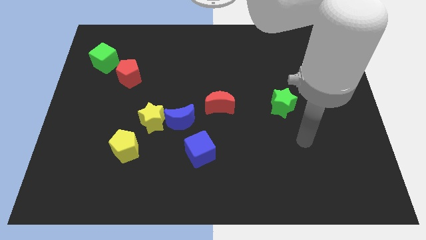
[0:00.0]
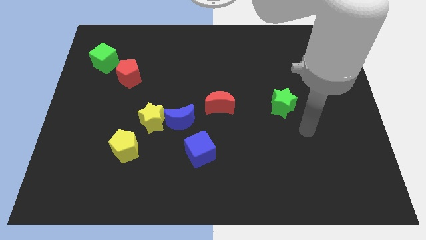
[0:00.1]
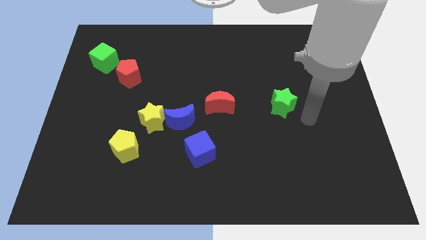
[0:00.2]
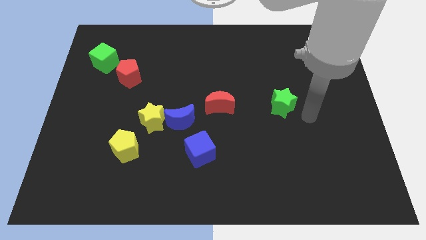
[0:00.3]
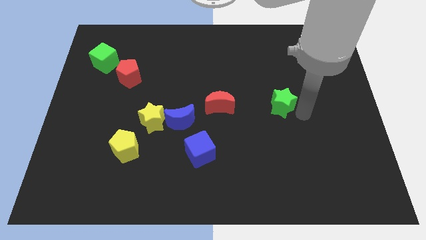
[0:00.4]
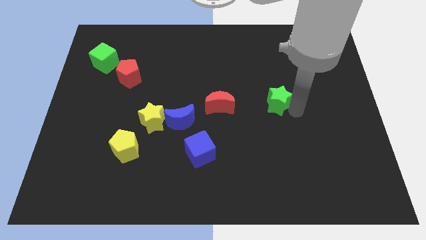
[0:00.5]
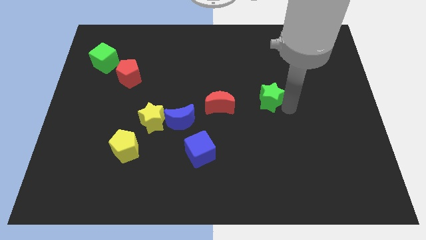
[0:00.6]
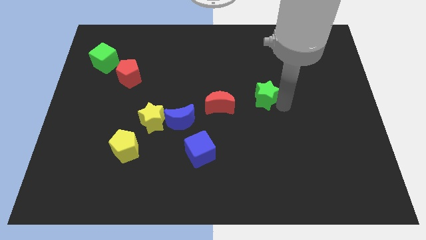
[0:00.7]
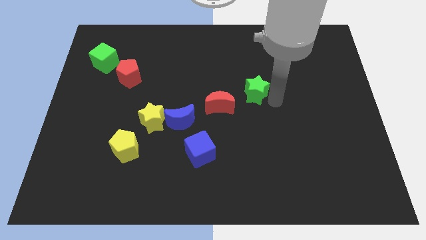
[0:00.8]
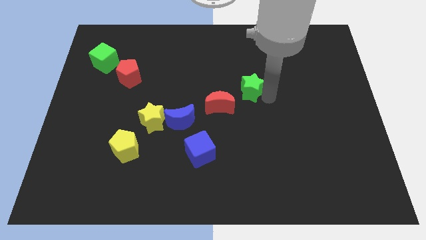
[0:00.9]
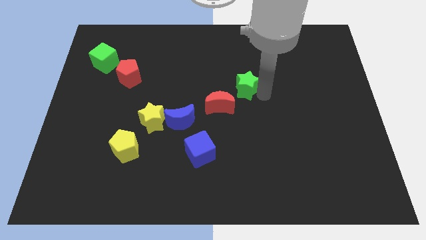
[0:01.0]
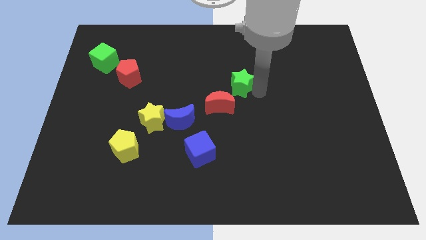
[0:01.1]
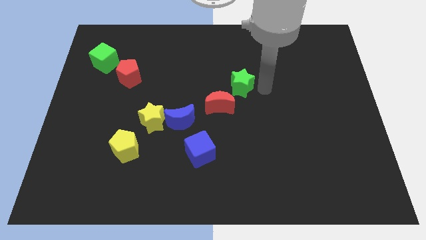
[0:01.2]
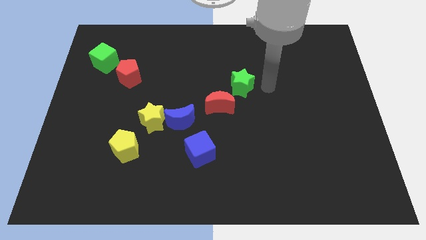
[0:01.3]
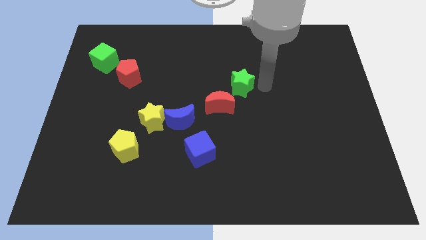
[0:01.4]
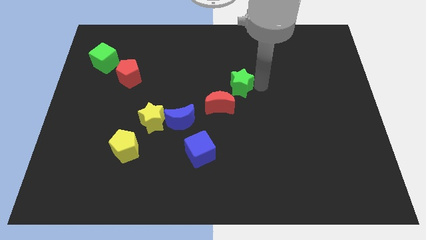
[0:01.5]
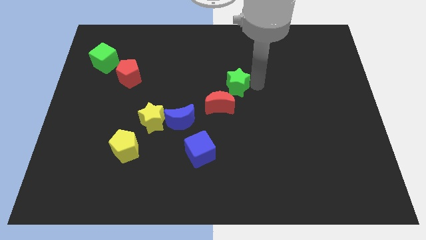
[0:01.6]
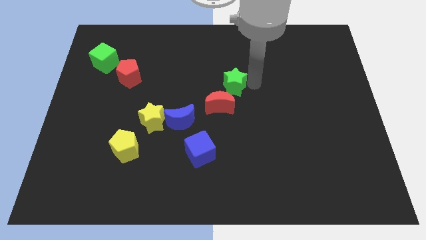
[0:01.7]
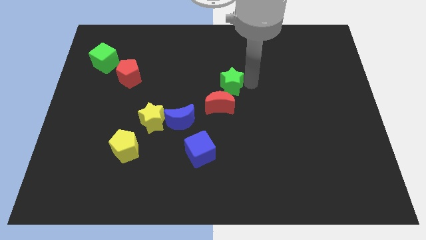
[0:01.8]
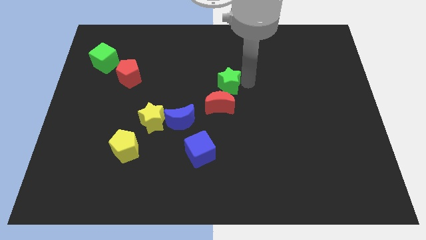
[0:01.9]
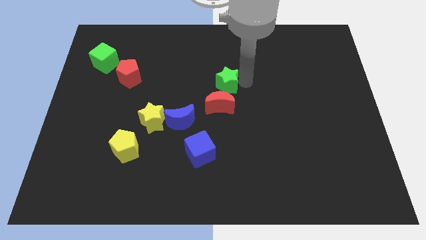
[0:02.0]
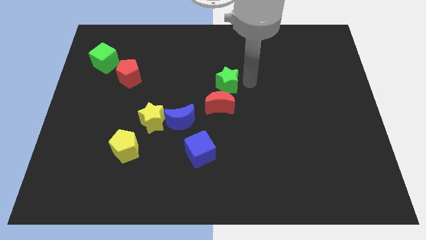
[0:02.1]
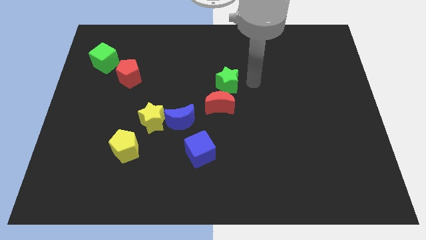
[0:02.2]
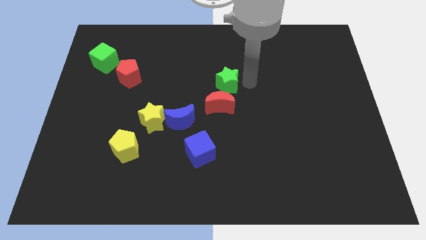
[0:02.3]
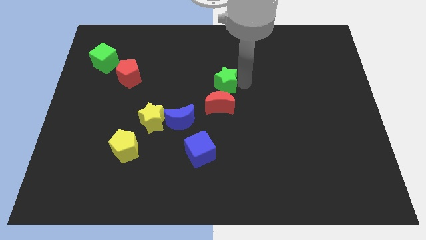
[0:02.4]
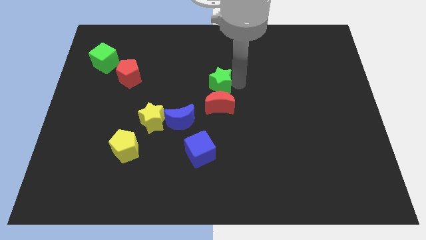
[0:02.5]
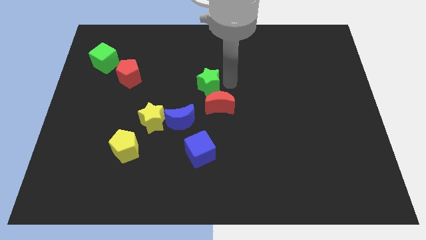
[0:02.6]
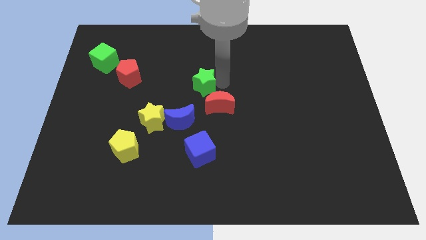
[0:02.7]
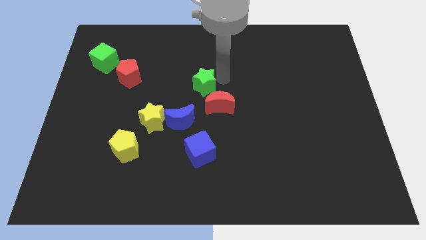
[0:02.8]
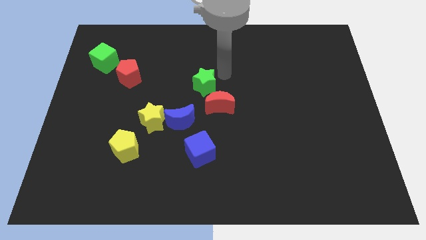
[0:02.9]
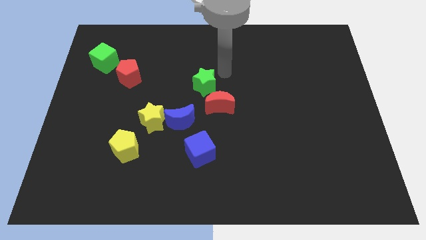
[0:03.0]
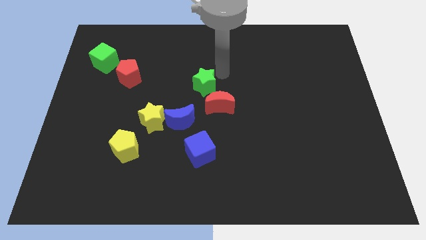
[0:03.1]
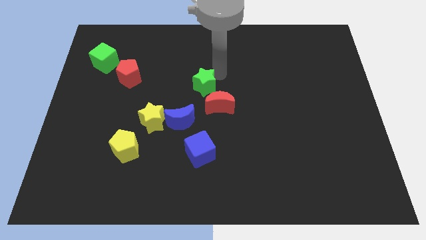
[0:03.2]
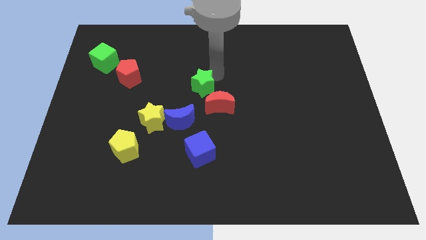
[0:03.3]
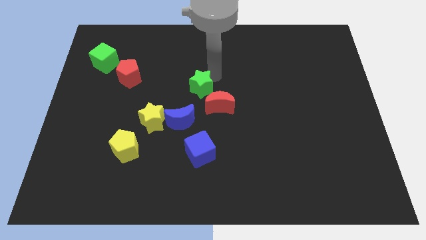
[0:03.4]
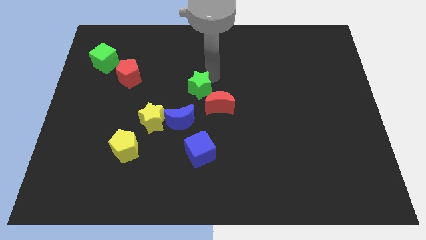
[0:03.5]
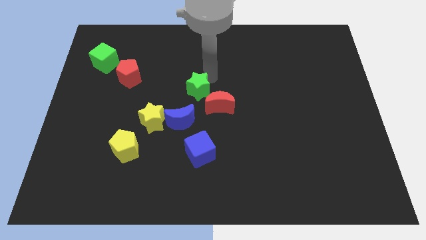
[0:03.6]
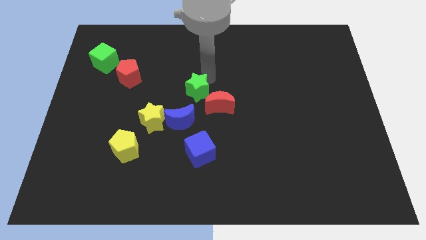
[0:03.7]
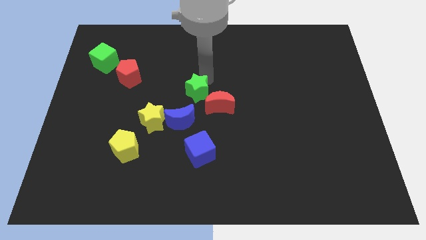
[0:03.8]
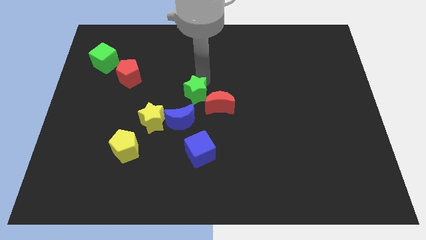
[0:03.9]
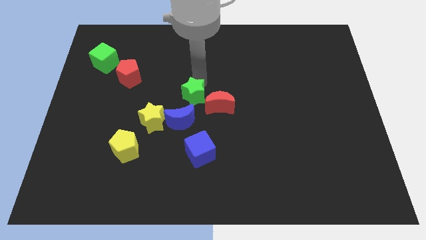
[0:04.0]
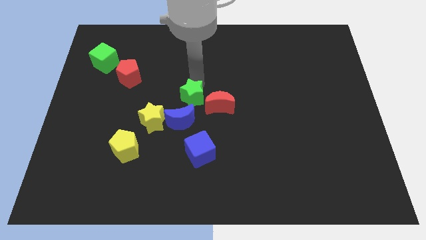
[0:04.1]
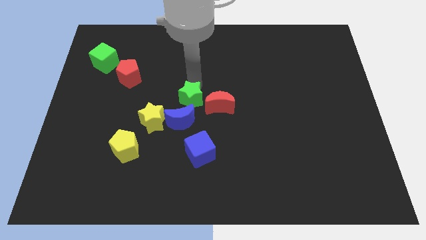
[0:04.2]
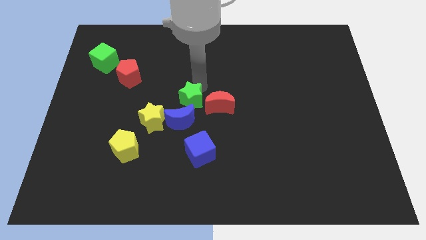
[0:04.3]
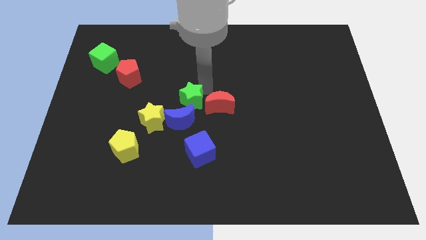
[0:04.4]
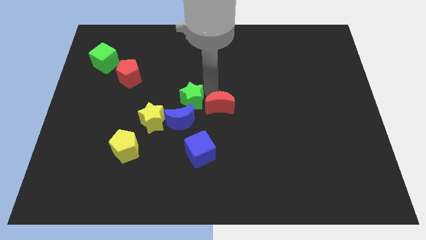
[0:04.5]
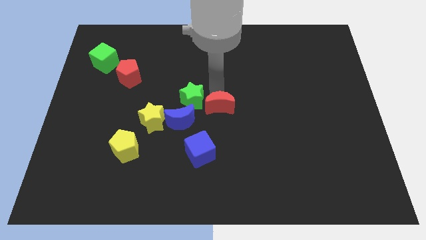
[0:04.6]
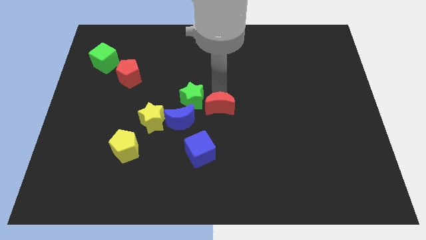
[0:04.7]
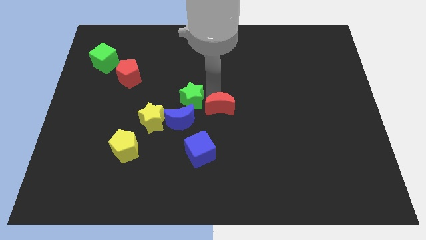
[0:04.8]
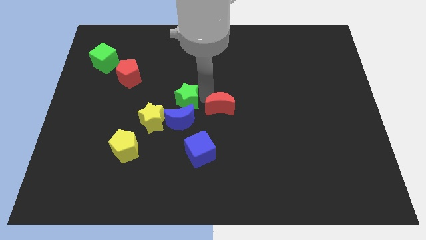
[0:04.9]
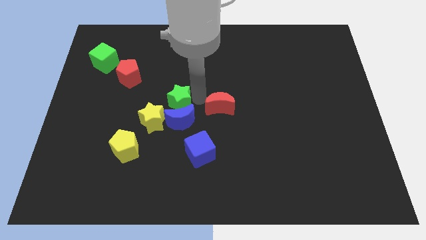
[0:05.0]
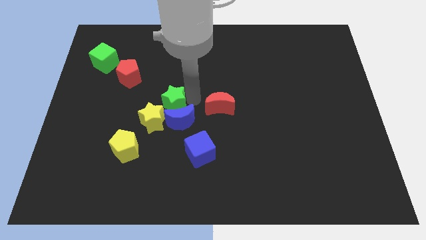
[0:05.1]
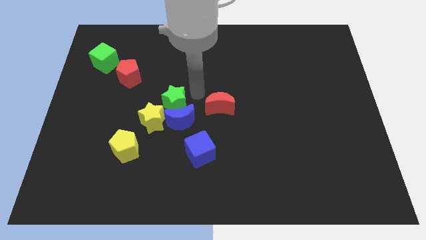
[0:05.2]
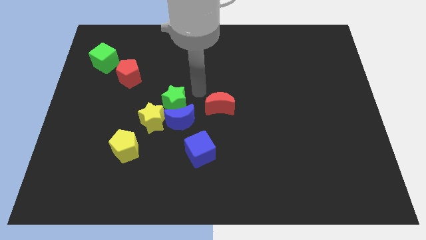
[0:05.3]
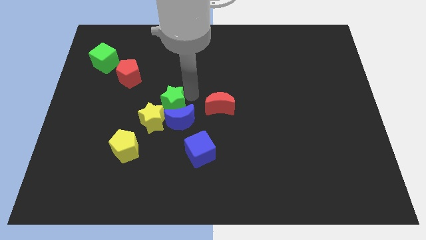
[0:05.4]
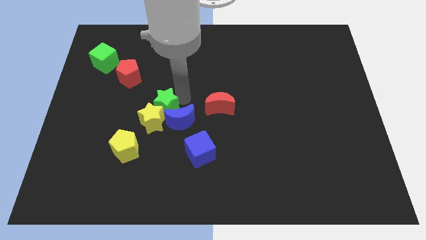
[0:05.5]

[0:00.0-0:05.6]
move the green star to the left side of the blue moon

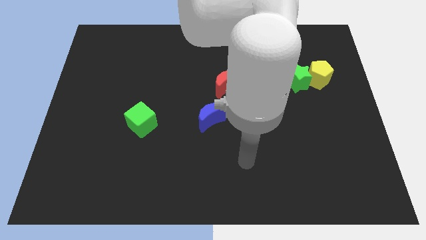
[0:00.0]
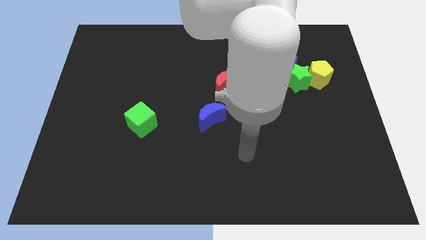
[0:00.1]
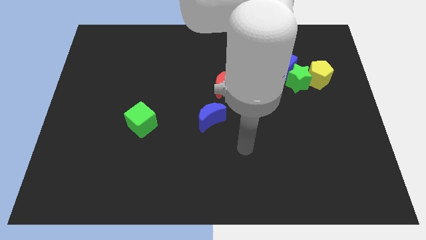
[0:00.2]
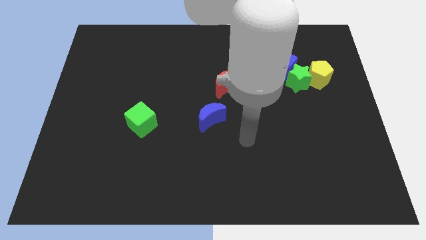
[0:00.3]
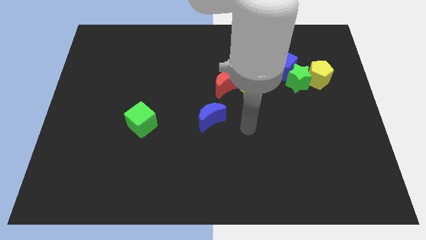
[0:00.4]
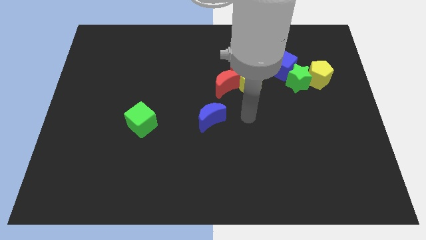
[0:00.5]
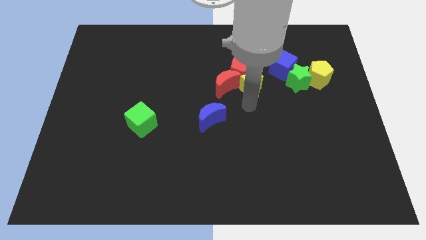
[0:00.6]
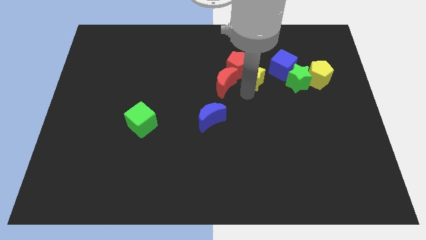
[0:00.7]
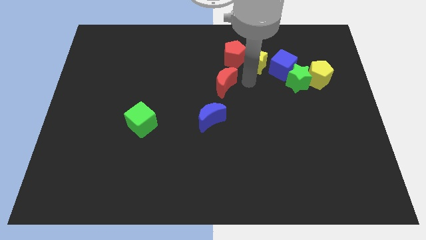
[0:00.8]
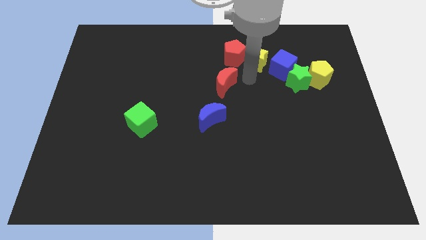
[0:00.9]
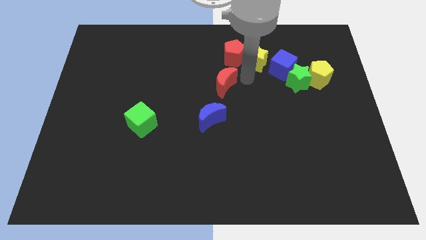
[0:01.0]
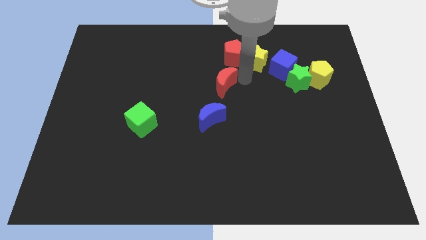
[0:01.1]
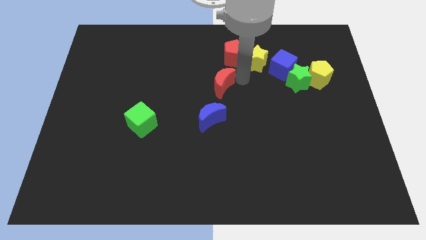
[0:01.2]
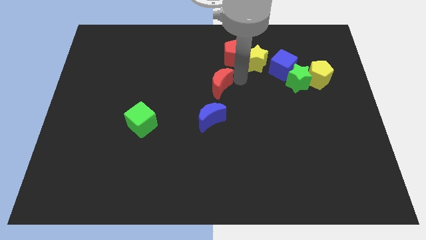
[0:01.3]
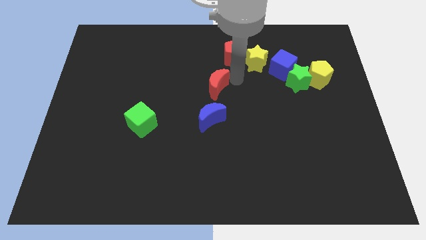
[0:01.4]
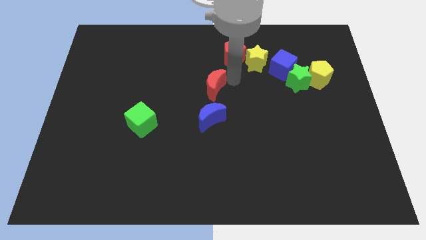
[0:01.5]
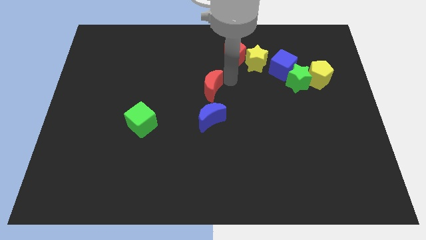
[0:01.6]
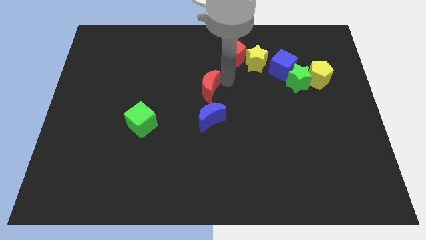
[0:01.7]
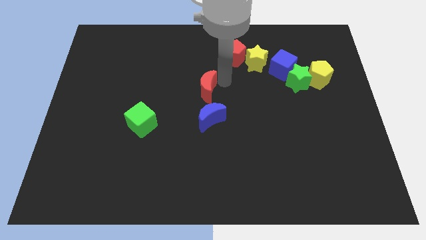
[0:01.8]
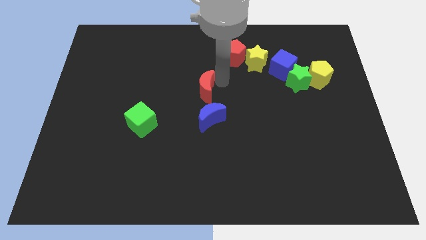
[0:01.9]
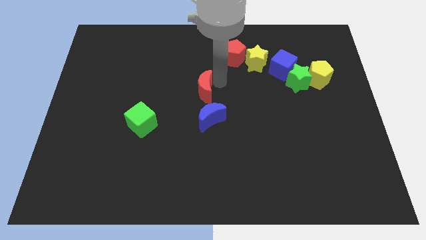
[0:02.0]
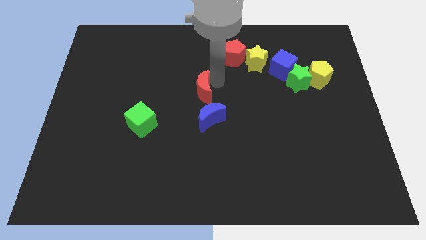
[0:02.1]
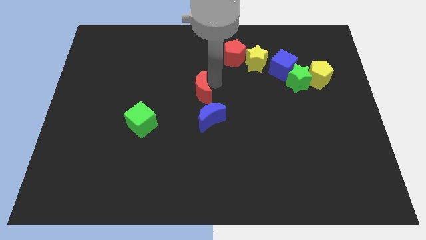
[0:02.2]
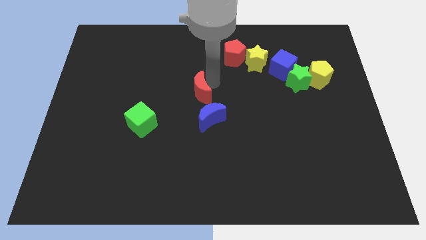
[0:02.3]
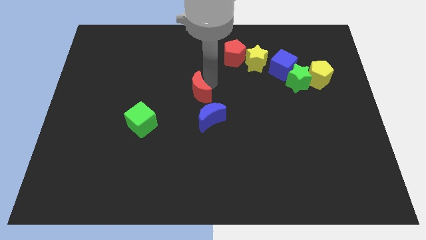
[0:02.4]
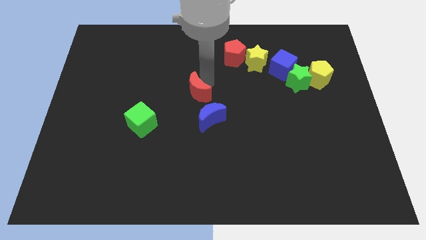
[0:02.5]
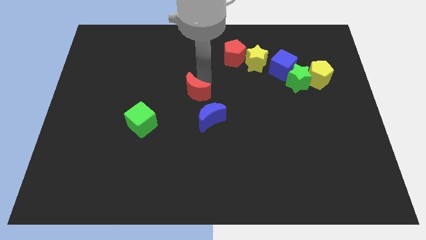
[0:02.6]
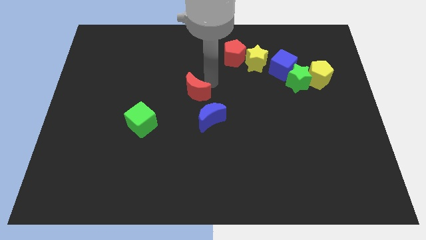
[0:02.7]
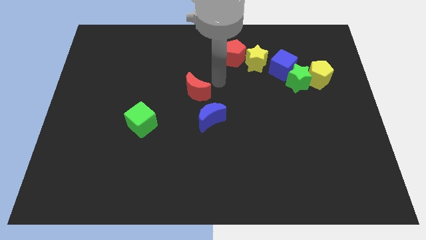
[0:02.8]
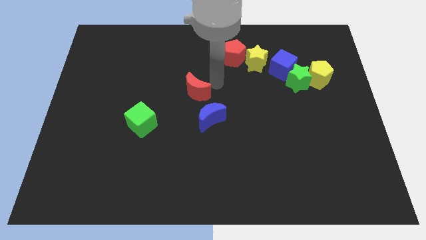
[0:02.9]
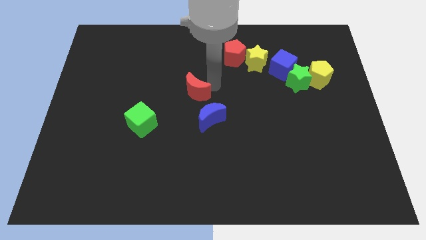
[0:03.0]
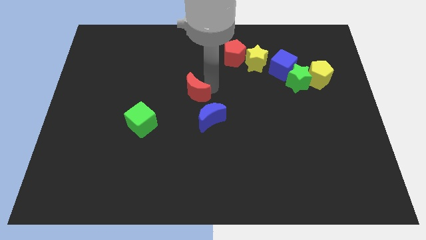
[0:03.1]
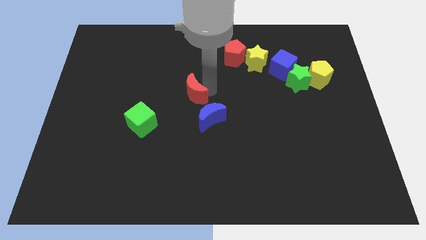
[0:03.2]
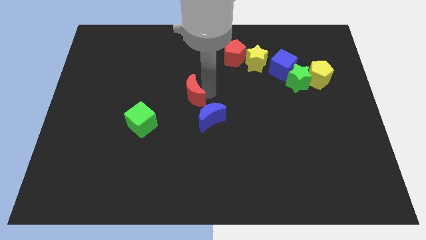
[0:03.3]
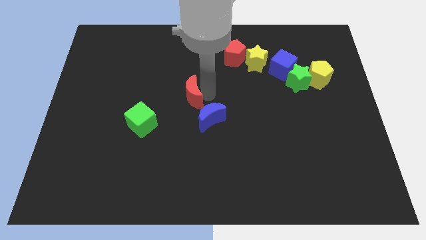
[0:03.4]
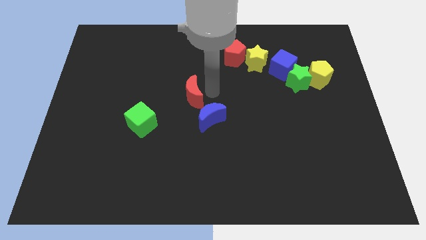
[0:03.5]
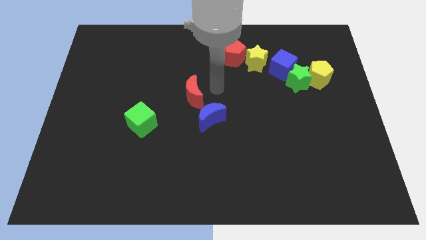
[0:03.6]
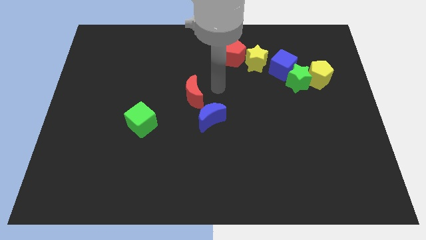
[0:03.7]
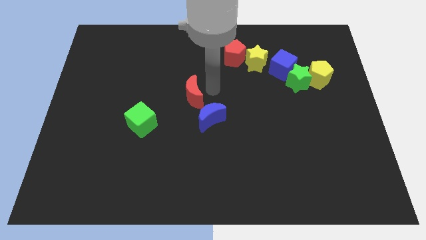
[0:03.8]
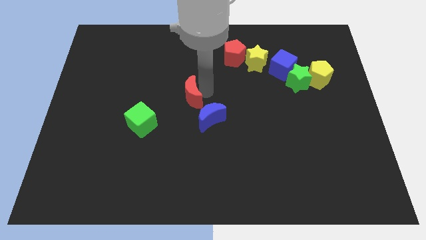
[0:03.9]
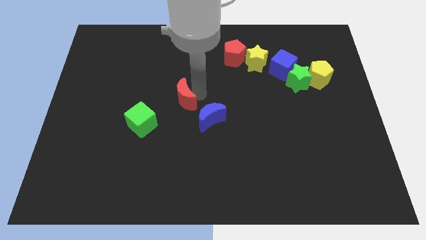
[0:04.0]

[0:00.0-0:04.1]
push the red moon diagonally up and to the right of the green cube
